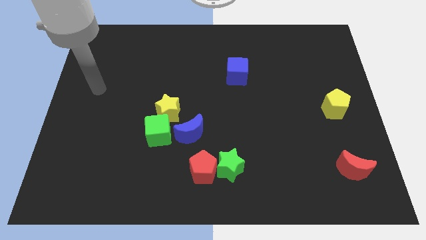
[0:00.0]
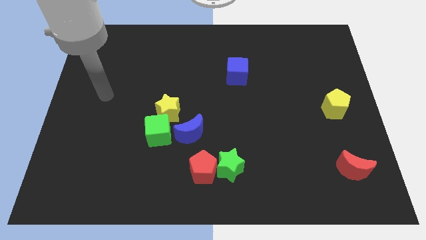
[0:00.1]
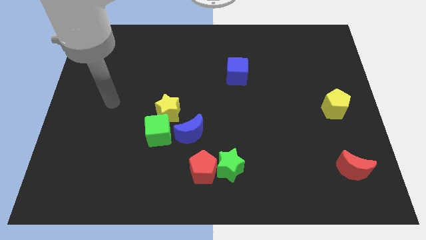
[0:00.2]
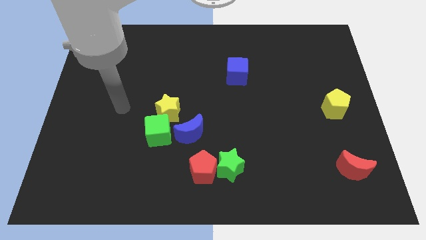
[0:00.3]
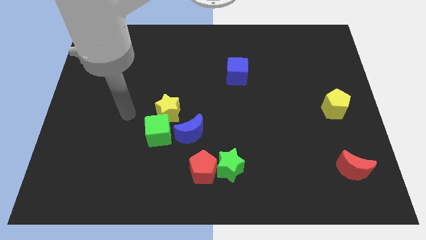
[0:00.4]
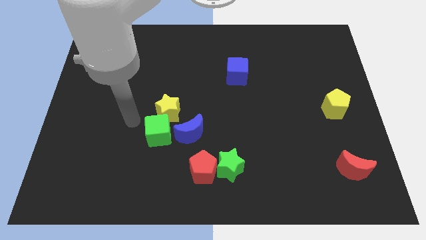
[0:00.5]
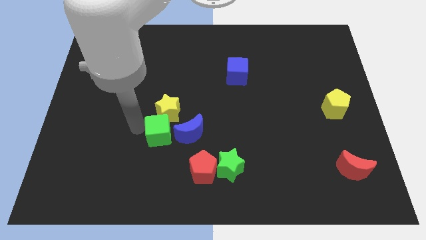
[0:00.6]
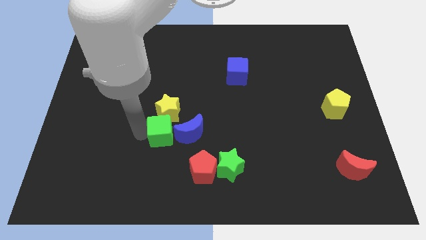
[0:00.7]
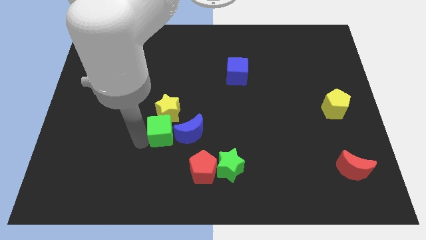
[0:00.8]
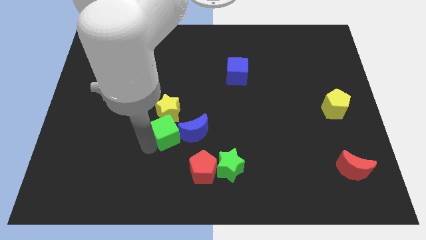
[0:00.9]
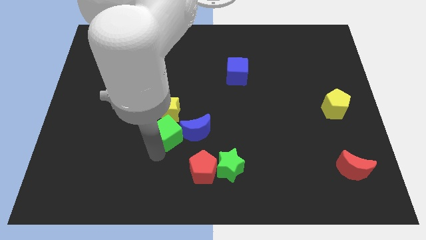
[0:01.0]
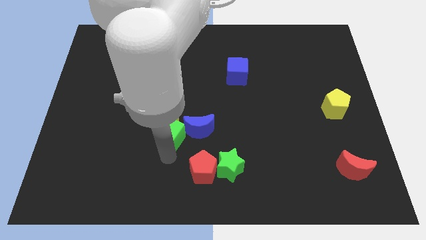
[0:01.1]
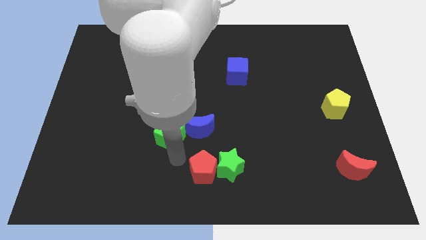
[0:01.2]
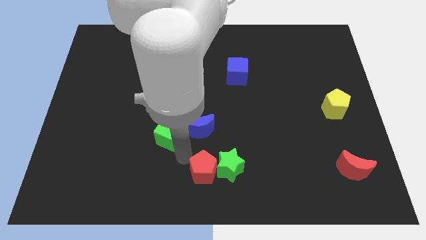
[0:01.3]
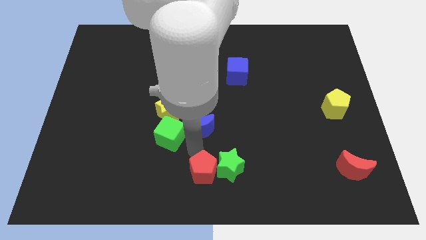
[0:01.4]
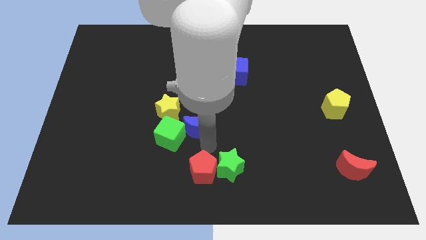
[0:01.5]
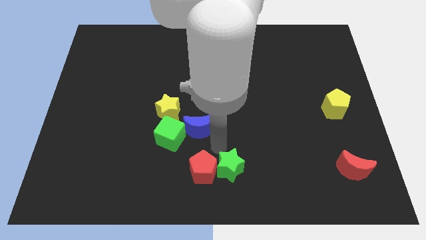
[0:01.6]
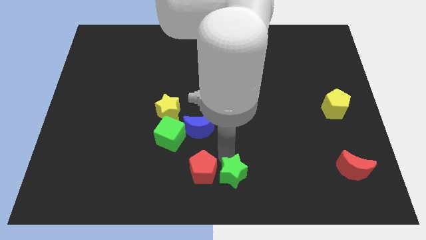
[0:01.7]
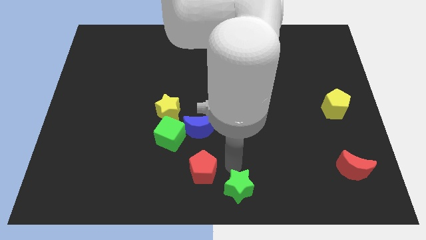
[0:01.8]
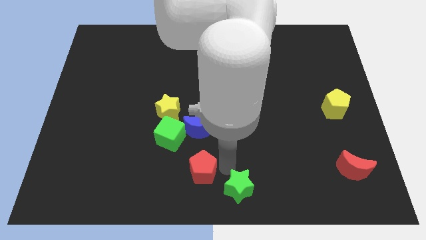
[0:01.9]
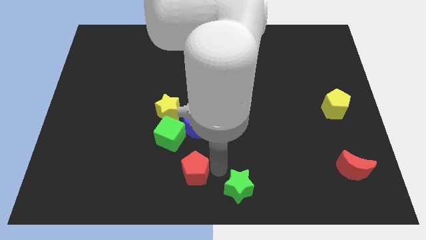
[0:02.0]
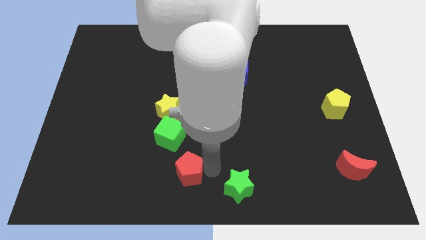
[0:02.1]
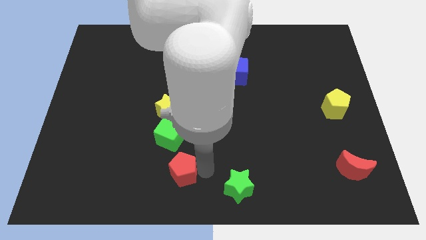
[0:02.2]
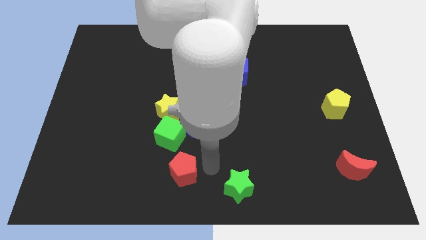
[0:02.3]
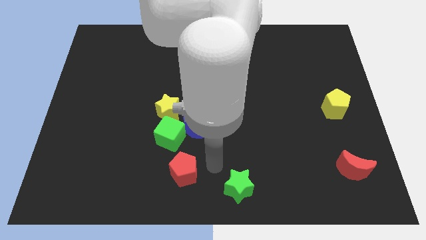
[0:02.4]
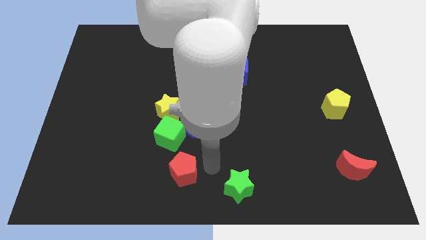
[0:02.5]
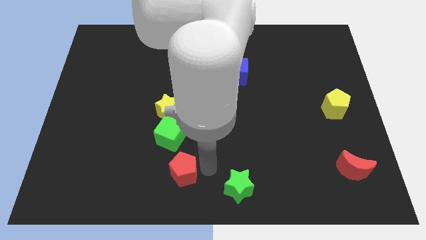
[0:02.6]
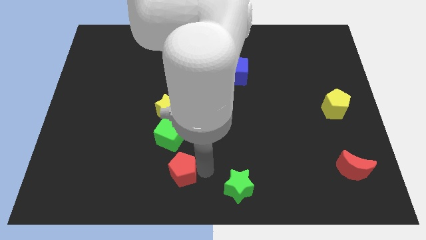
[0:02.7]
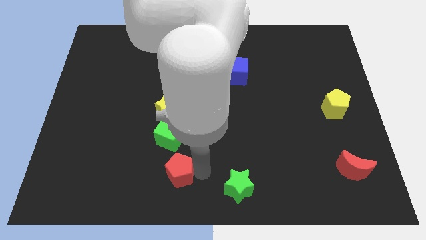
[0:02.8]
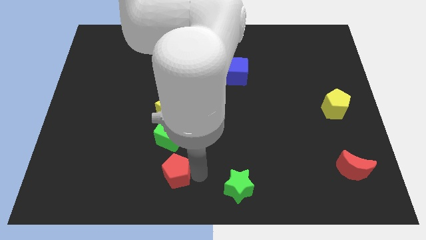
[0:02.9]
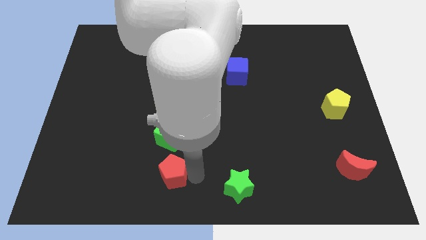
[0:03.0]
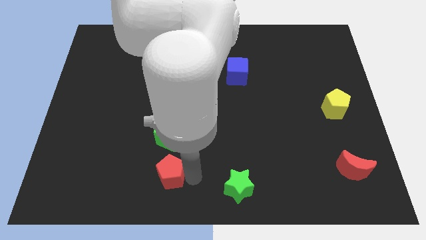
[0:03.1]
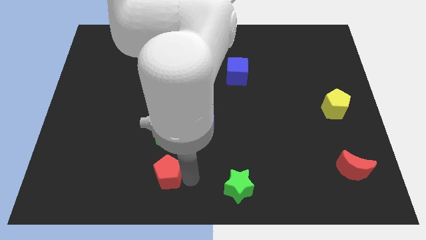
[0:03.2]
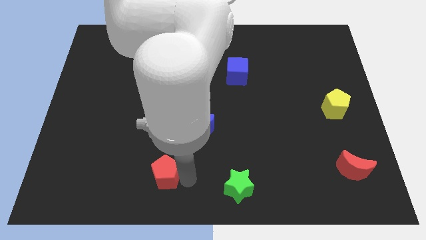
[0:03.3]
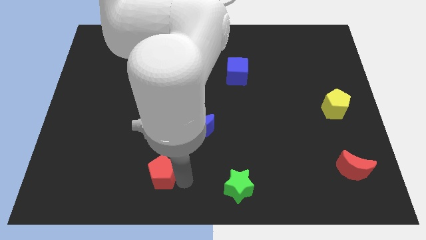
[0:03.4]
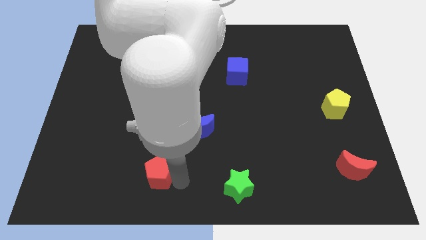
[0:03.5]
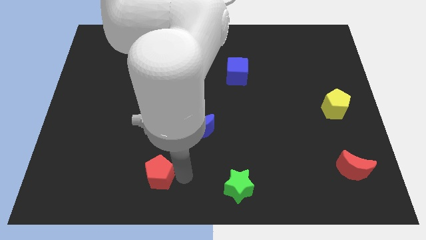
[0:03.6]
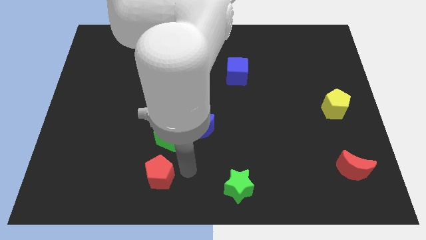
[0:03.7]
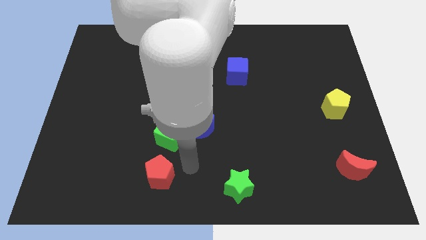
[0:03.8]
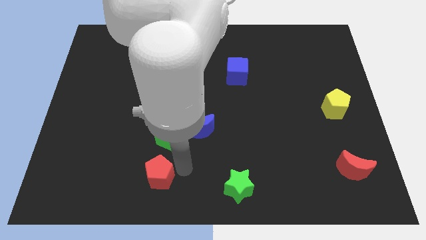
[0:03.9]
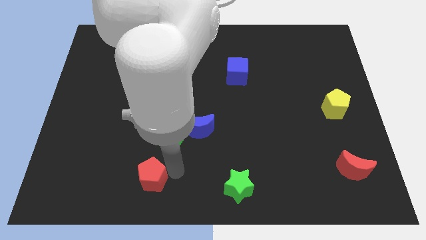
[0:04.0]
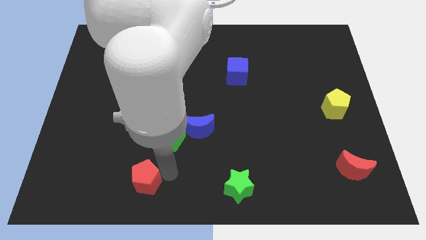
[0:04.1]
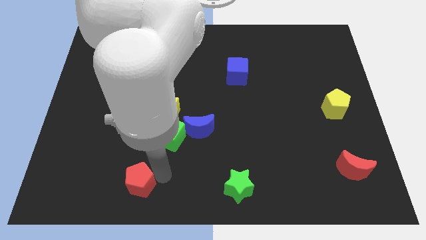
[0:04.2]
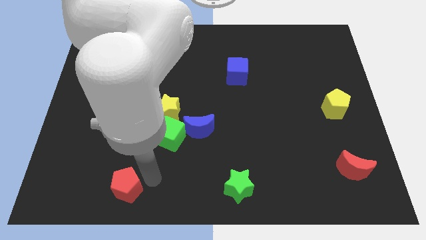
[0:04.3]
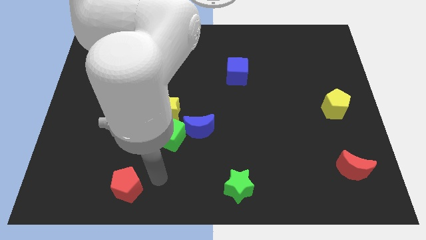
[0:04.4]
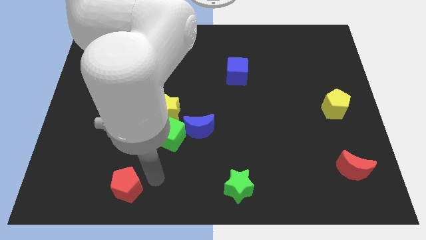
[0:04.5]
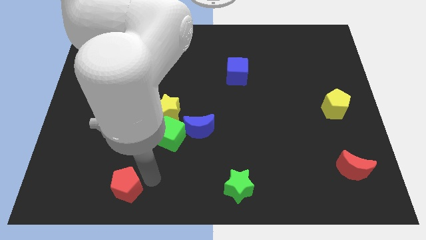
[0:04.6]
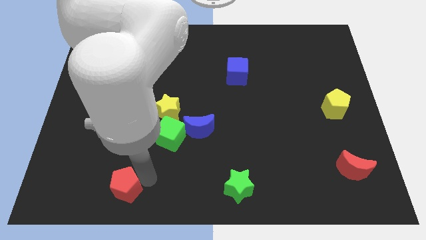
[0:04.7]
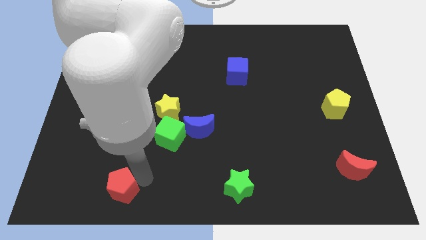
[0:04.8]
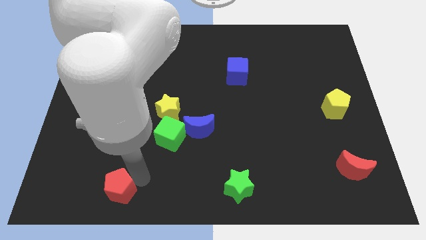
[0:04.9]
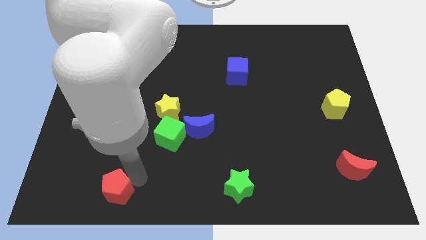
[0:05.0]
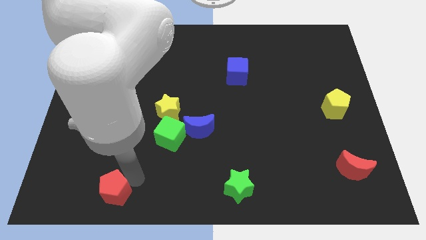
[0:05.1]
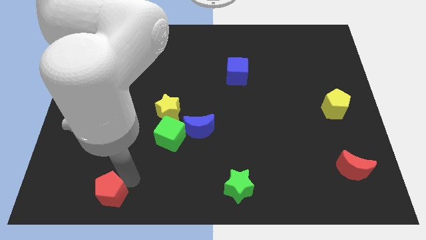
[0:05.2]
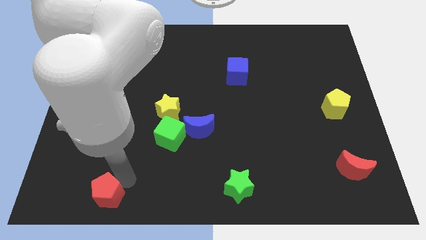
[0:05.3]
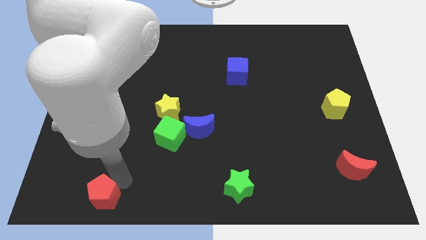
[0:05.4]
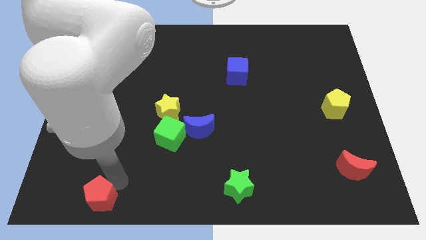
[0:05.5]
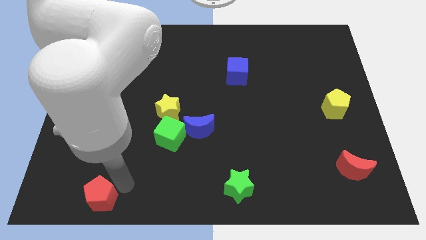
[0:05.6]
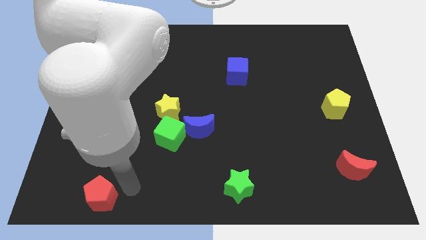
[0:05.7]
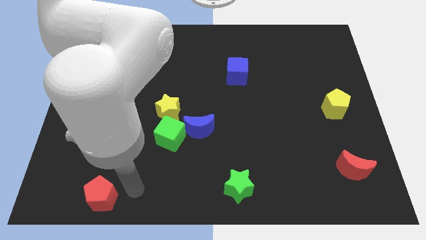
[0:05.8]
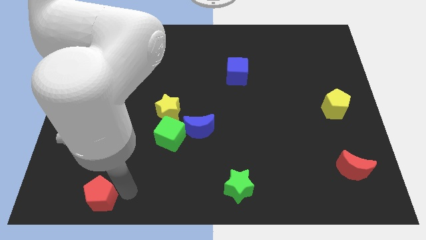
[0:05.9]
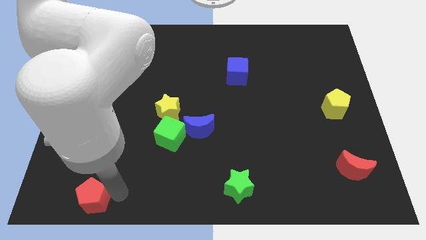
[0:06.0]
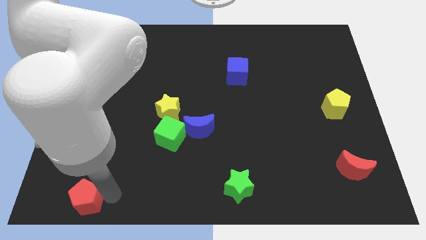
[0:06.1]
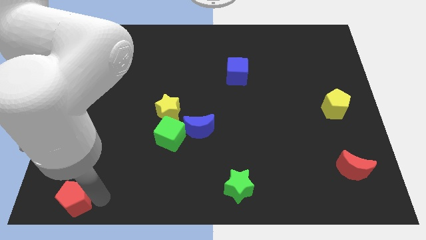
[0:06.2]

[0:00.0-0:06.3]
move the red pentagon to the lower left corner
